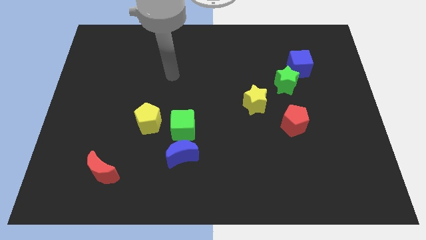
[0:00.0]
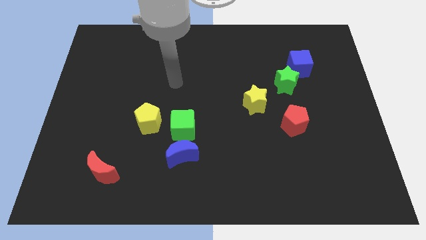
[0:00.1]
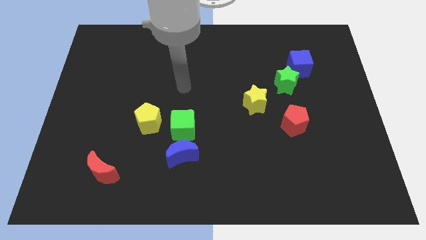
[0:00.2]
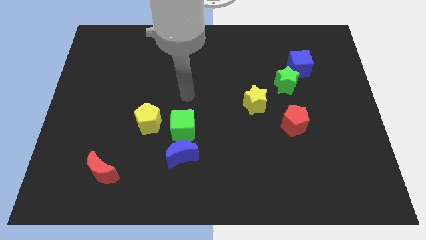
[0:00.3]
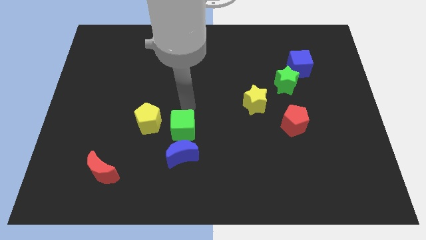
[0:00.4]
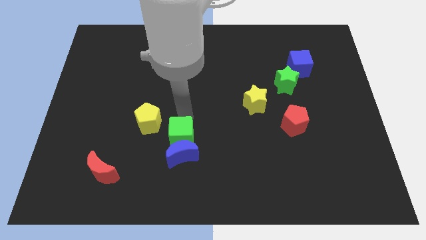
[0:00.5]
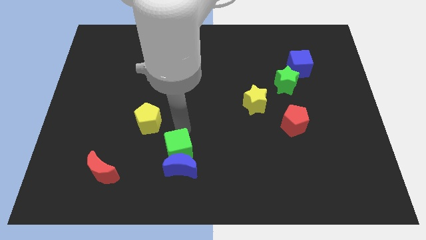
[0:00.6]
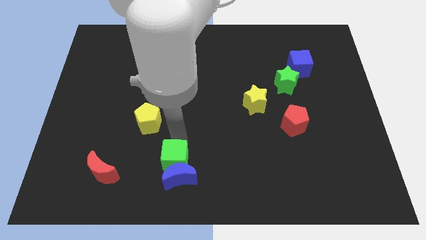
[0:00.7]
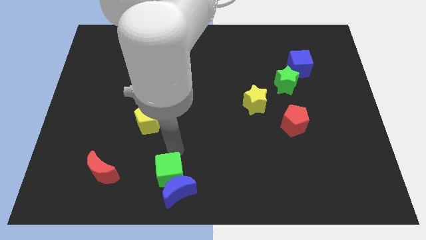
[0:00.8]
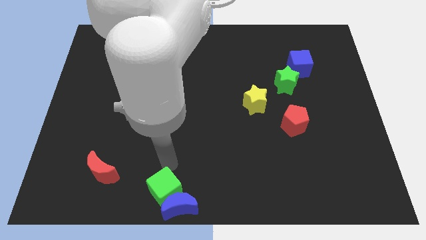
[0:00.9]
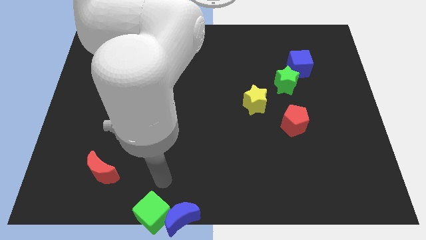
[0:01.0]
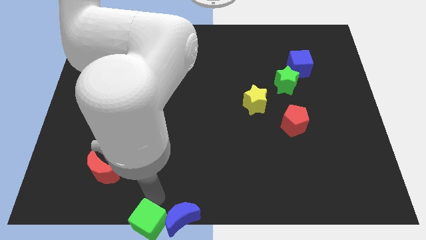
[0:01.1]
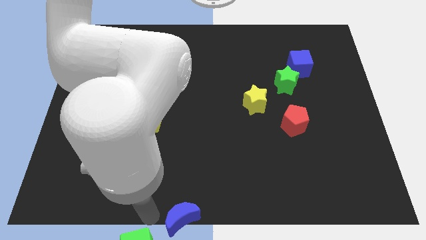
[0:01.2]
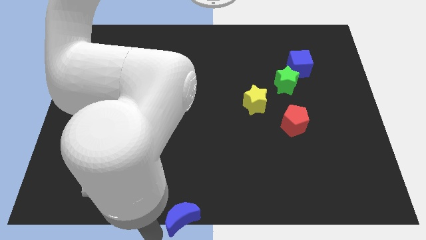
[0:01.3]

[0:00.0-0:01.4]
move the blue moon away from the green cube

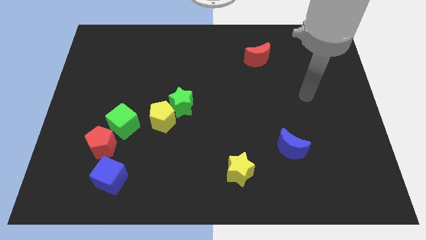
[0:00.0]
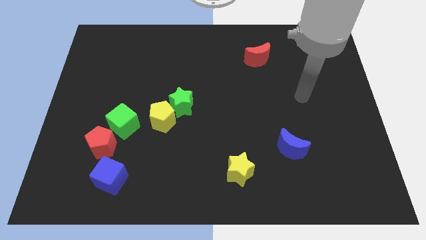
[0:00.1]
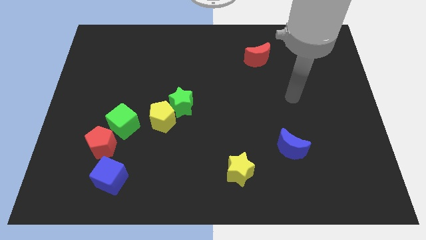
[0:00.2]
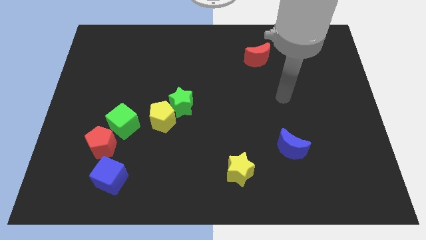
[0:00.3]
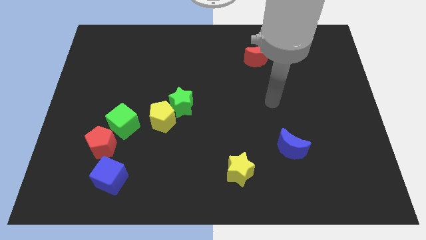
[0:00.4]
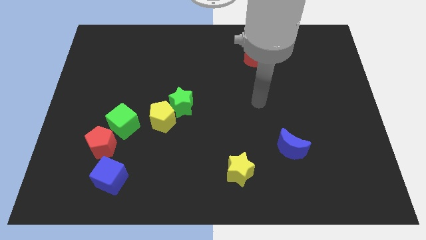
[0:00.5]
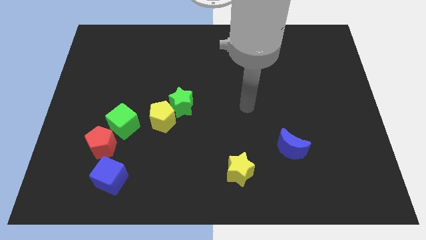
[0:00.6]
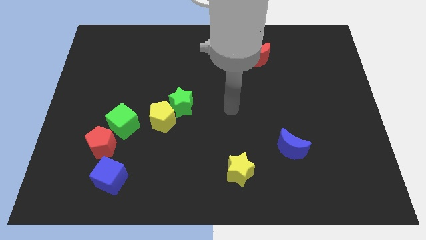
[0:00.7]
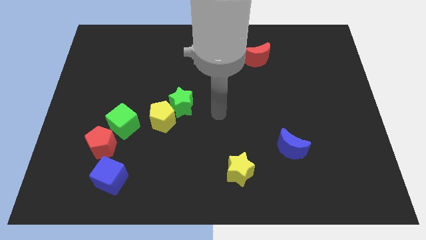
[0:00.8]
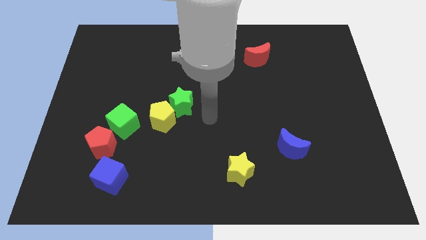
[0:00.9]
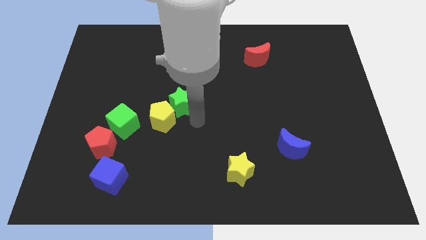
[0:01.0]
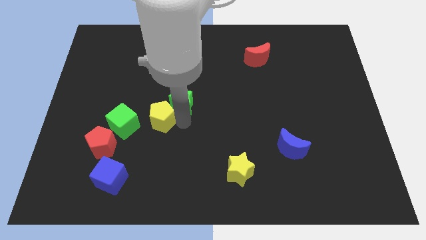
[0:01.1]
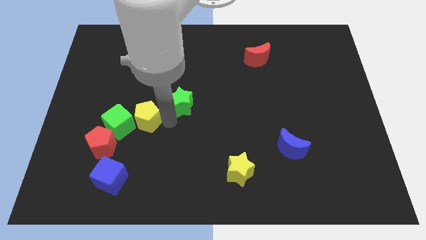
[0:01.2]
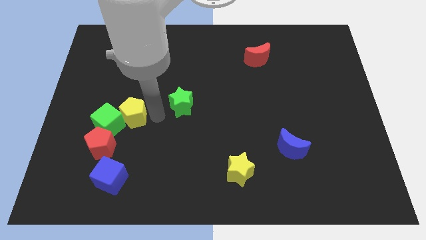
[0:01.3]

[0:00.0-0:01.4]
move the green star away from the yellow pentagon

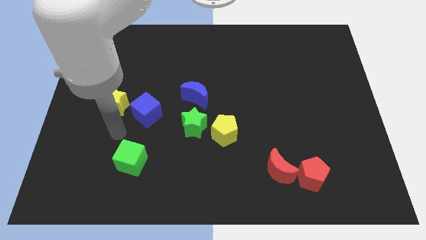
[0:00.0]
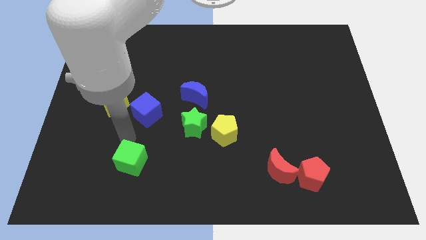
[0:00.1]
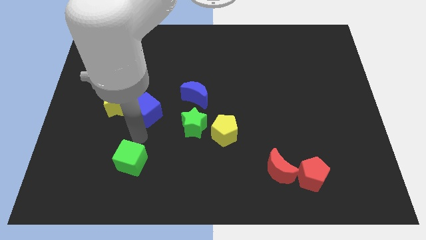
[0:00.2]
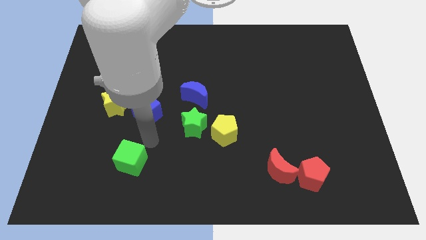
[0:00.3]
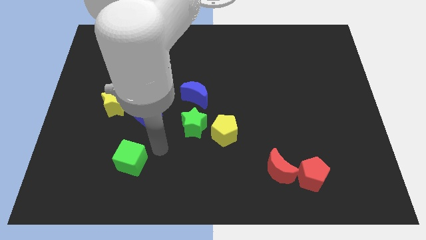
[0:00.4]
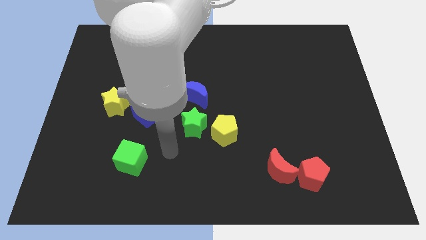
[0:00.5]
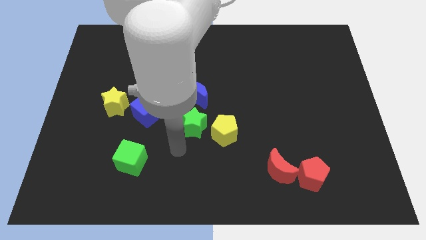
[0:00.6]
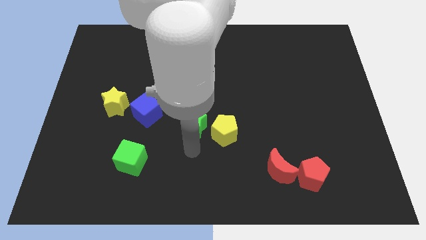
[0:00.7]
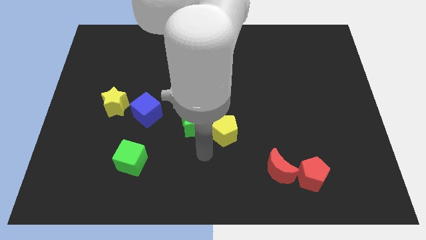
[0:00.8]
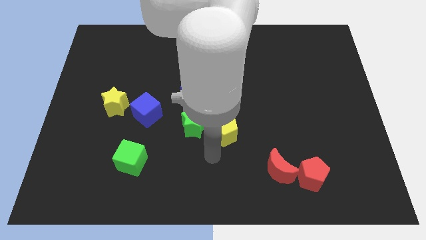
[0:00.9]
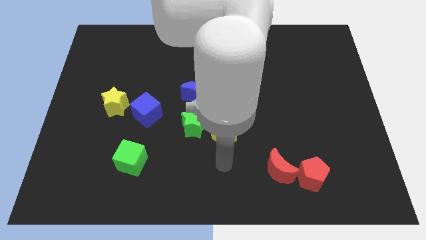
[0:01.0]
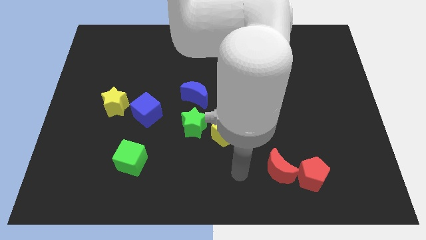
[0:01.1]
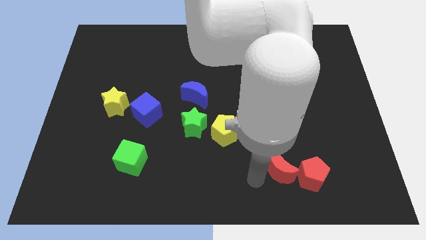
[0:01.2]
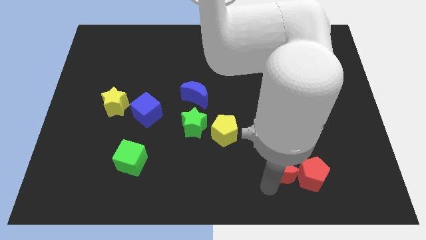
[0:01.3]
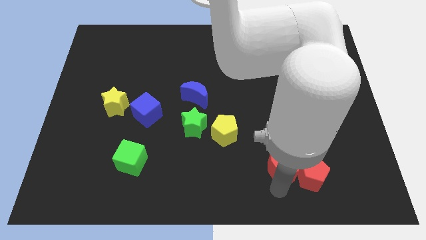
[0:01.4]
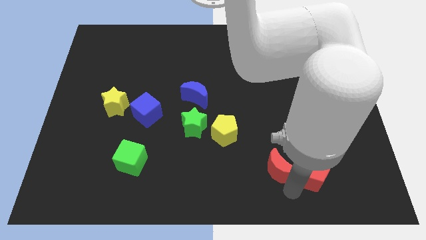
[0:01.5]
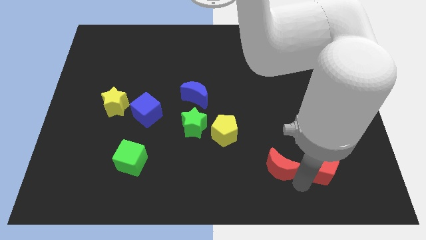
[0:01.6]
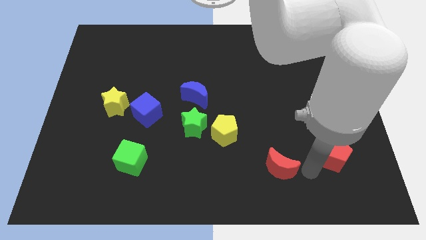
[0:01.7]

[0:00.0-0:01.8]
pull the red moon apart from the red pentagon

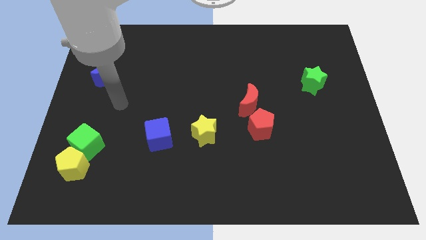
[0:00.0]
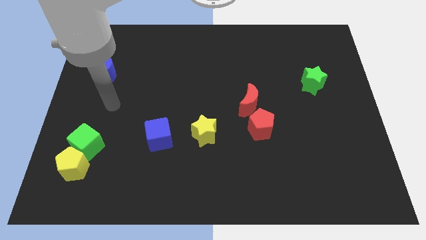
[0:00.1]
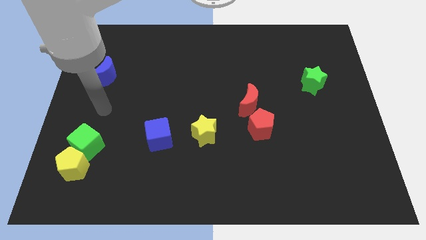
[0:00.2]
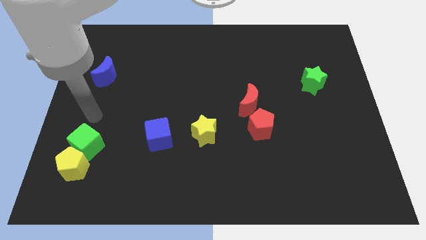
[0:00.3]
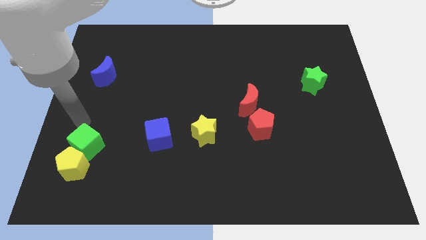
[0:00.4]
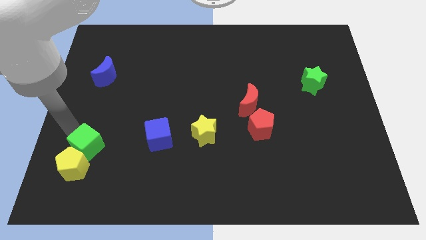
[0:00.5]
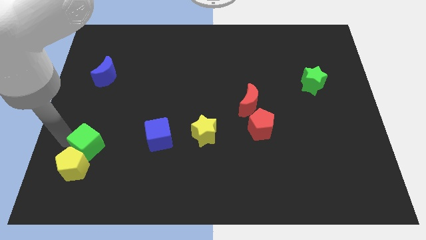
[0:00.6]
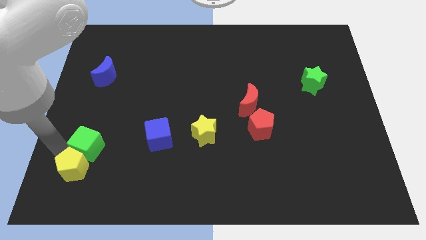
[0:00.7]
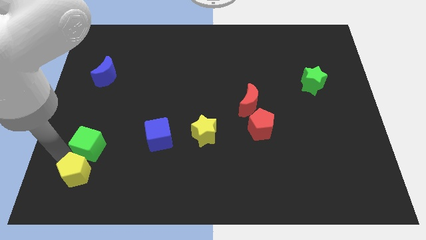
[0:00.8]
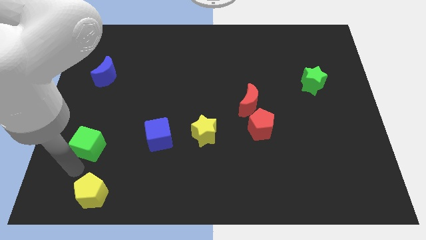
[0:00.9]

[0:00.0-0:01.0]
separate the green cube from the yellow pentagon

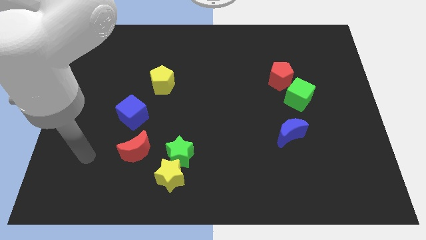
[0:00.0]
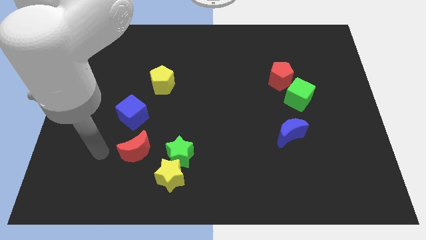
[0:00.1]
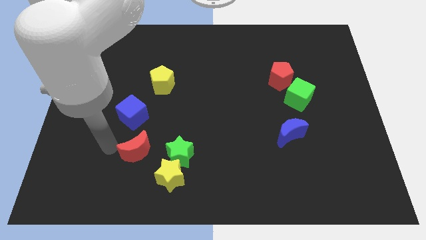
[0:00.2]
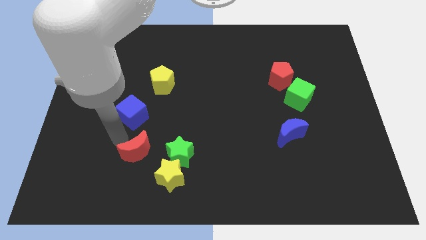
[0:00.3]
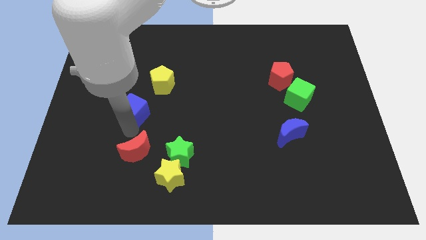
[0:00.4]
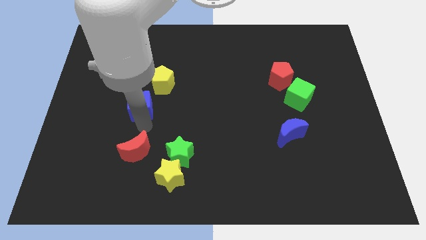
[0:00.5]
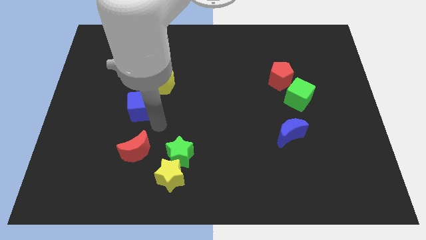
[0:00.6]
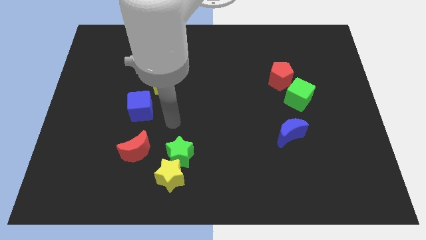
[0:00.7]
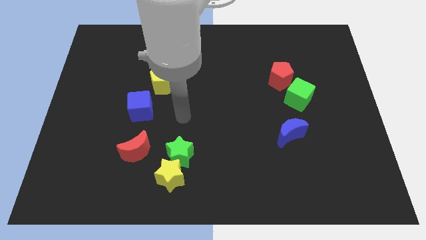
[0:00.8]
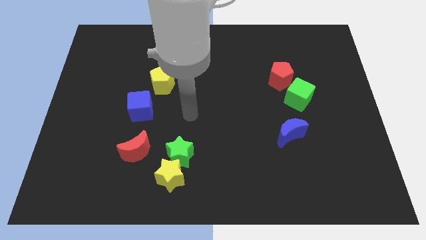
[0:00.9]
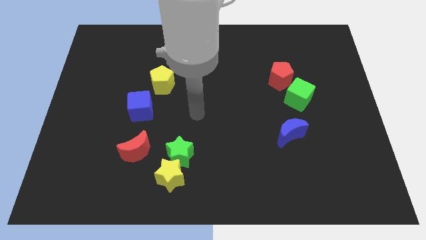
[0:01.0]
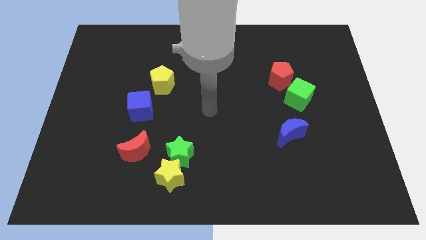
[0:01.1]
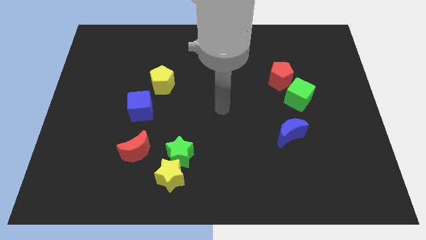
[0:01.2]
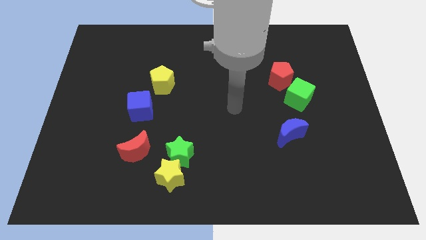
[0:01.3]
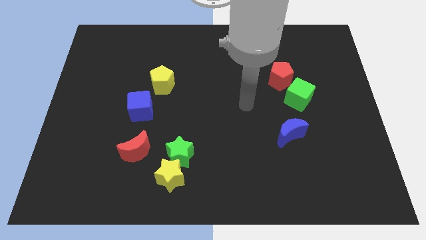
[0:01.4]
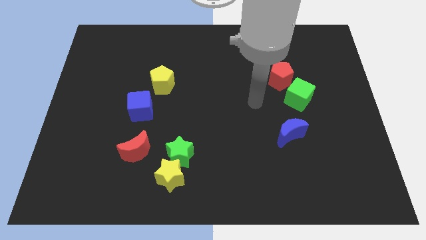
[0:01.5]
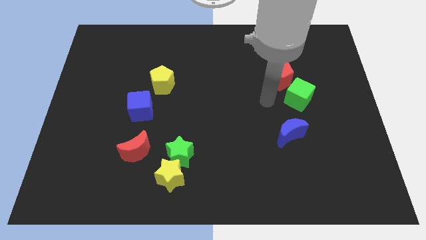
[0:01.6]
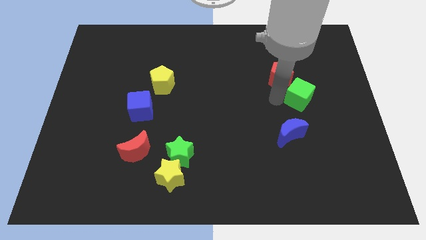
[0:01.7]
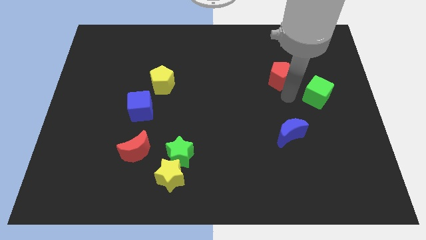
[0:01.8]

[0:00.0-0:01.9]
pull the red pentagon apart from the green cube

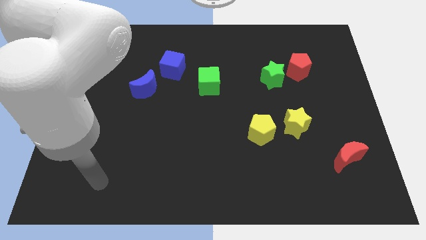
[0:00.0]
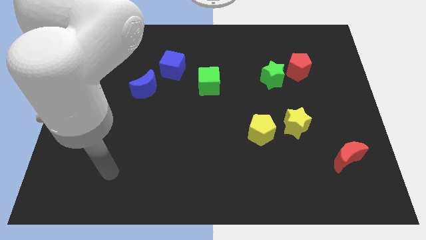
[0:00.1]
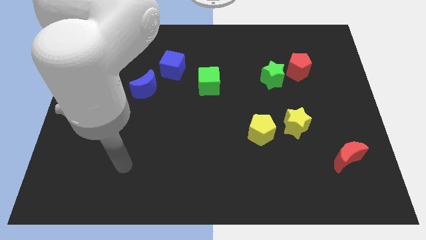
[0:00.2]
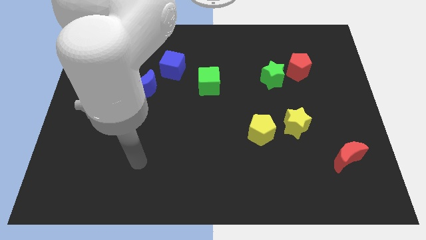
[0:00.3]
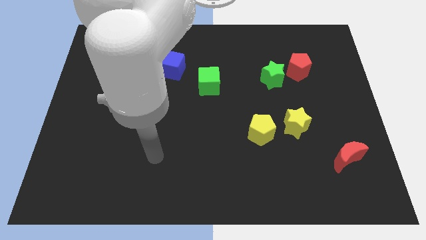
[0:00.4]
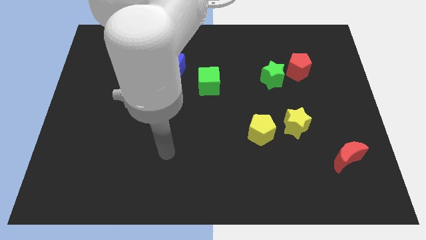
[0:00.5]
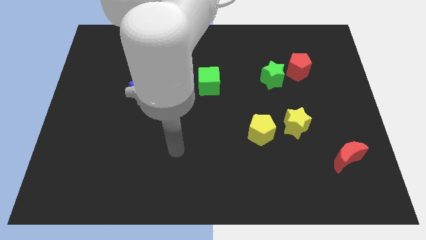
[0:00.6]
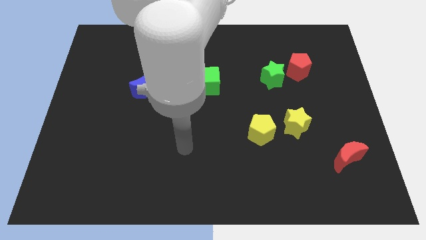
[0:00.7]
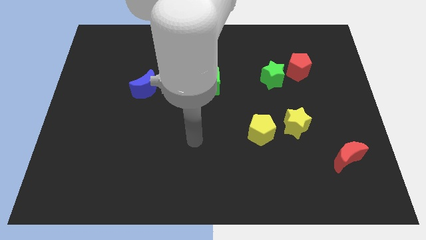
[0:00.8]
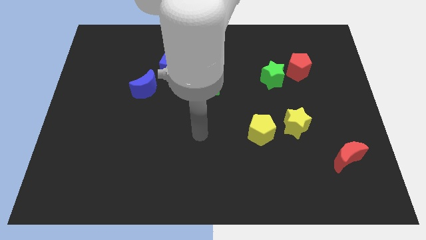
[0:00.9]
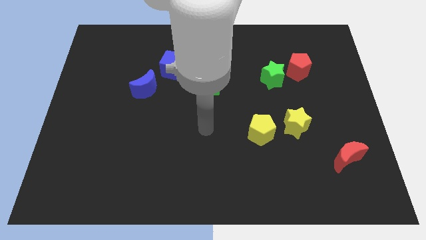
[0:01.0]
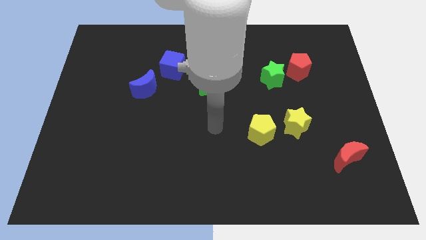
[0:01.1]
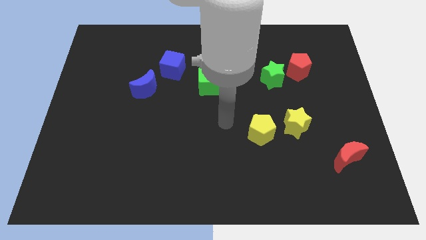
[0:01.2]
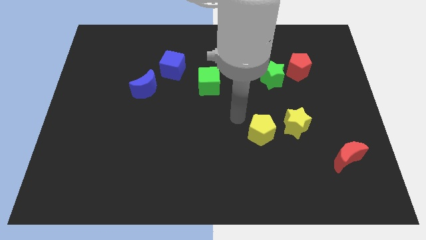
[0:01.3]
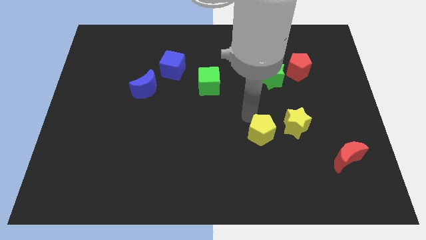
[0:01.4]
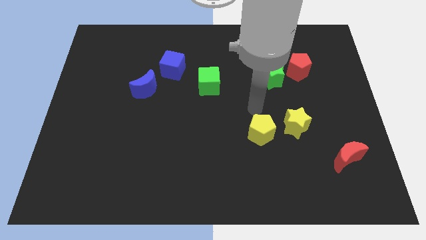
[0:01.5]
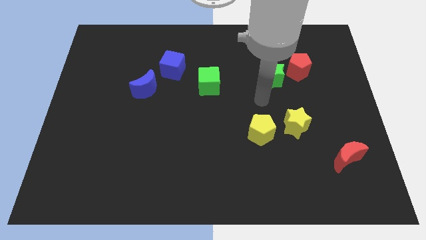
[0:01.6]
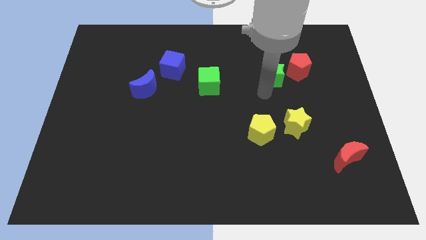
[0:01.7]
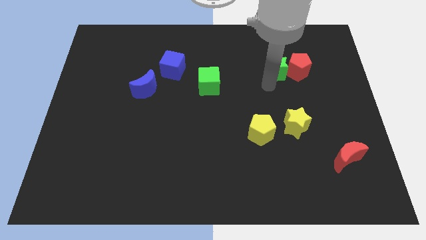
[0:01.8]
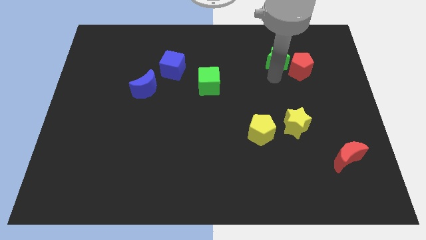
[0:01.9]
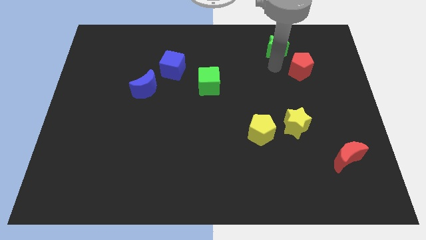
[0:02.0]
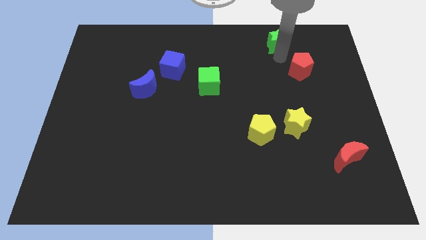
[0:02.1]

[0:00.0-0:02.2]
pull the red pentagon apart from the green star
